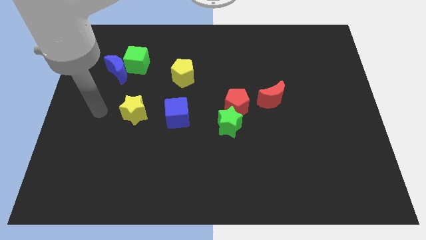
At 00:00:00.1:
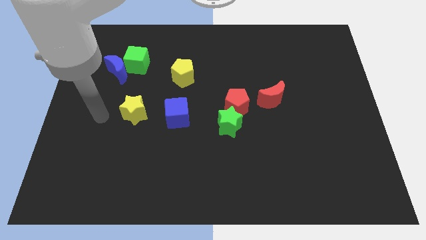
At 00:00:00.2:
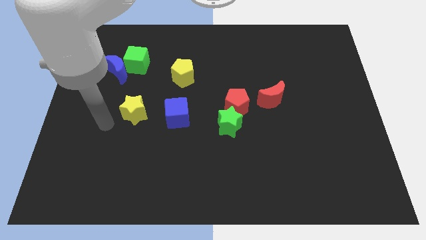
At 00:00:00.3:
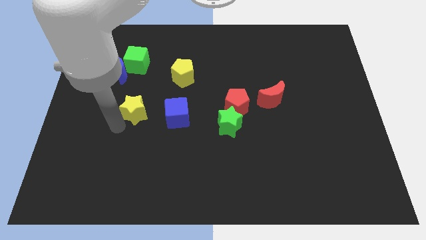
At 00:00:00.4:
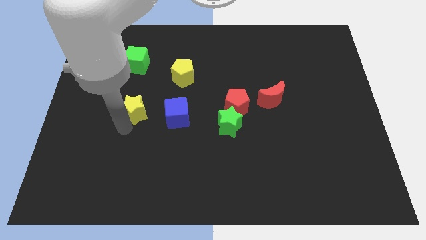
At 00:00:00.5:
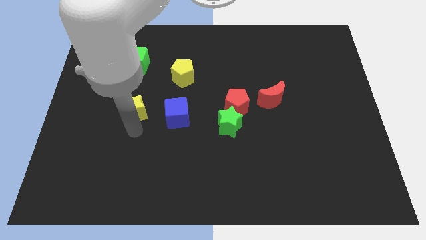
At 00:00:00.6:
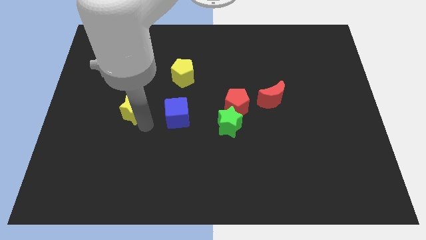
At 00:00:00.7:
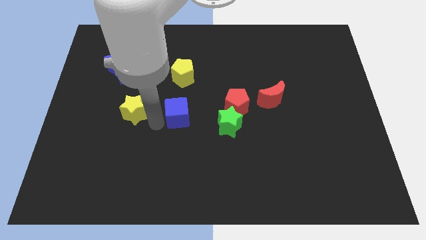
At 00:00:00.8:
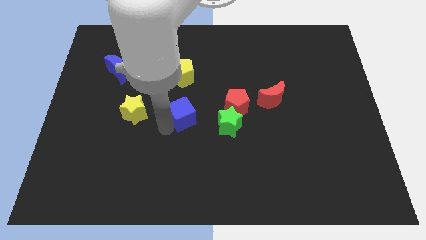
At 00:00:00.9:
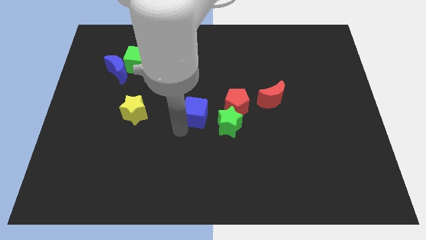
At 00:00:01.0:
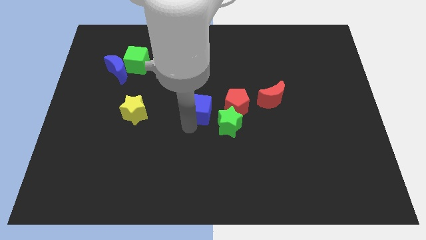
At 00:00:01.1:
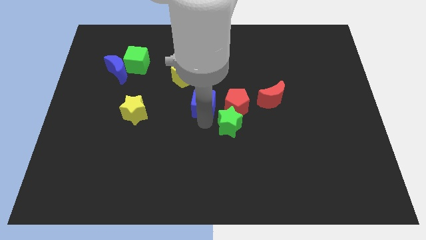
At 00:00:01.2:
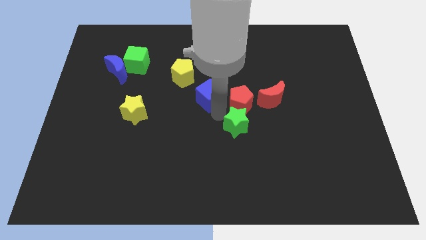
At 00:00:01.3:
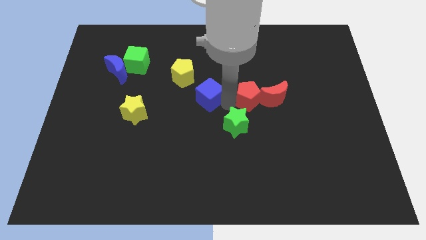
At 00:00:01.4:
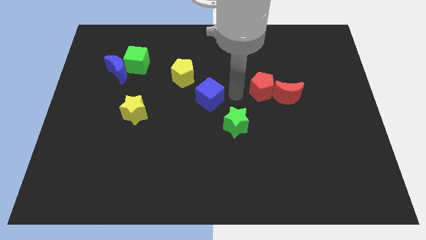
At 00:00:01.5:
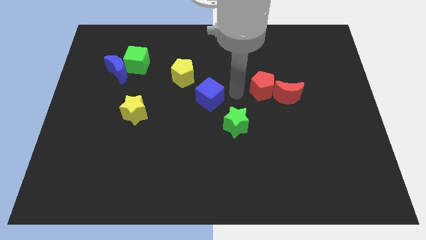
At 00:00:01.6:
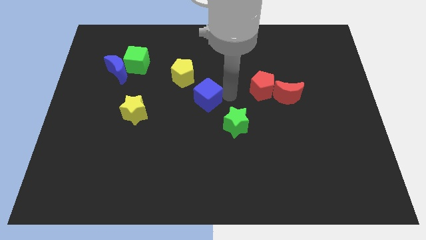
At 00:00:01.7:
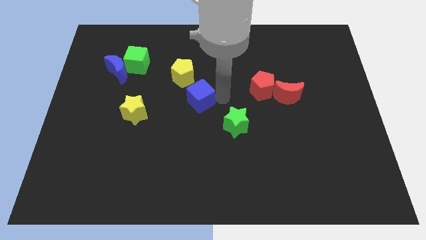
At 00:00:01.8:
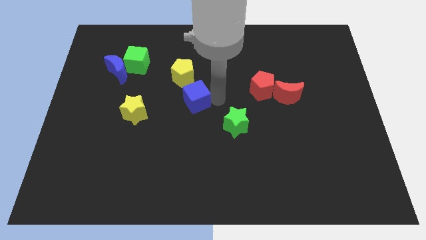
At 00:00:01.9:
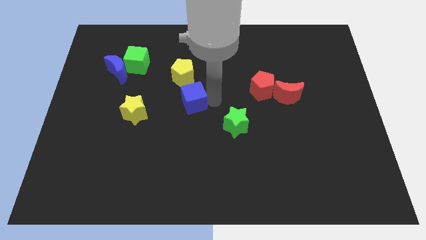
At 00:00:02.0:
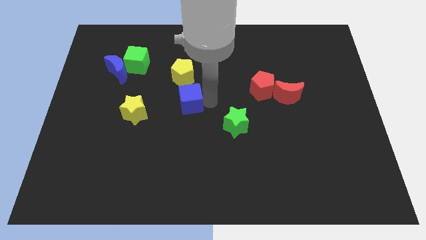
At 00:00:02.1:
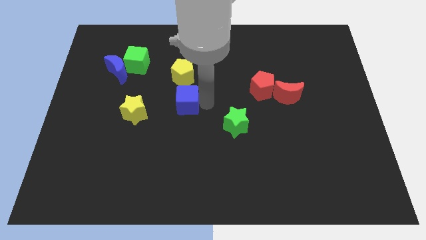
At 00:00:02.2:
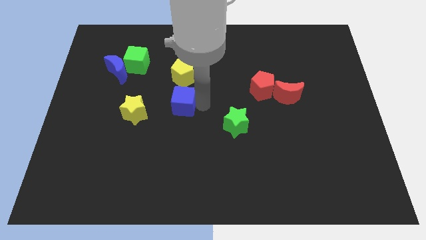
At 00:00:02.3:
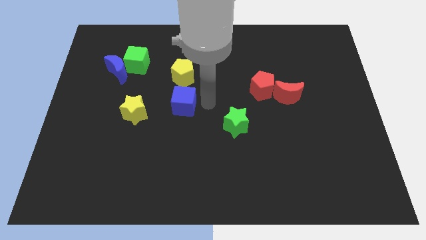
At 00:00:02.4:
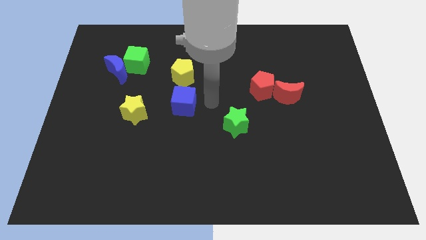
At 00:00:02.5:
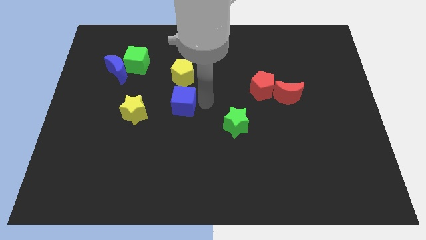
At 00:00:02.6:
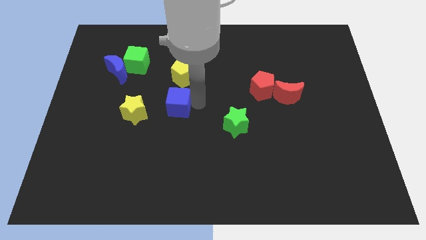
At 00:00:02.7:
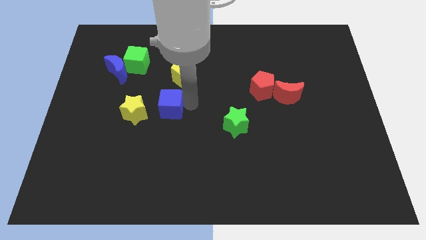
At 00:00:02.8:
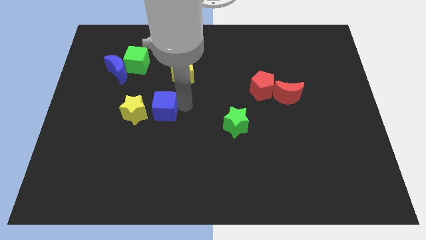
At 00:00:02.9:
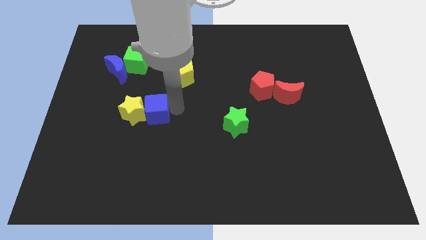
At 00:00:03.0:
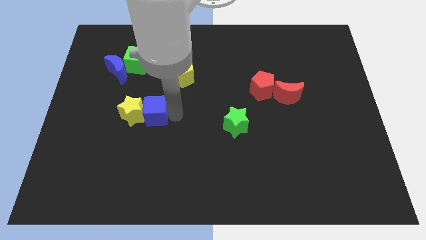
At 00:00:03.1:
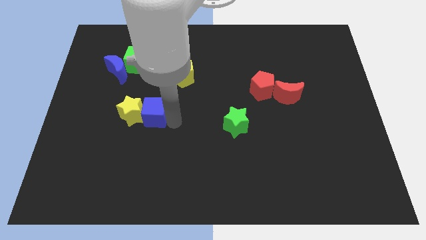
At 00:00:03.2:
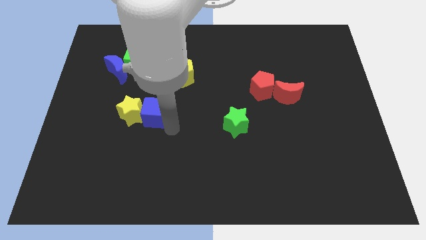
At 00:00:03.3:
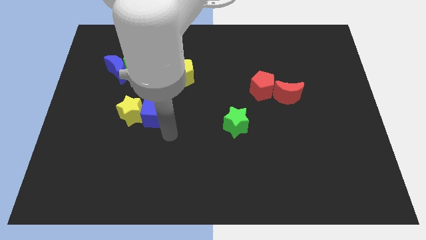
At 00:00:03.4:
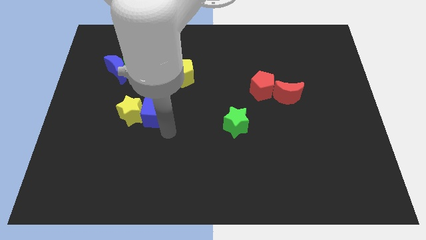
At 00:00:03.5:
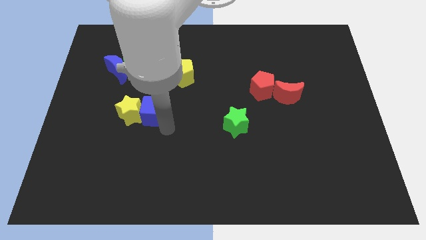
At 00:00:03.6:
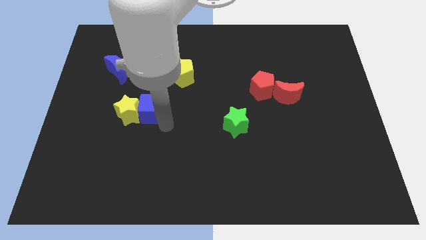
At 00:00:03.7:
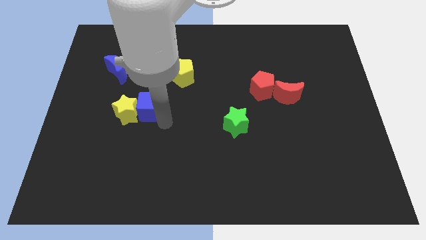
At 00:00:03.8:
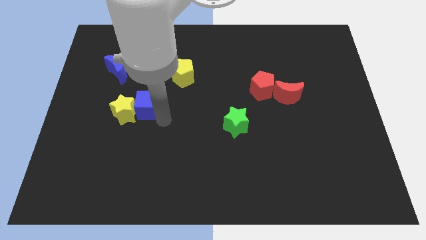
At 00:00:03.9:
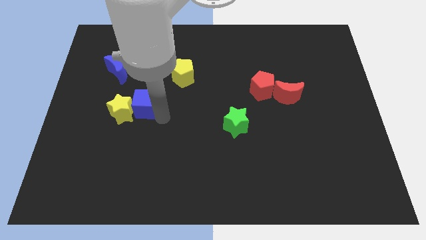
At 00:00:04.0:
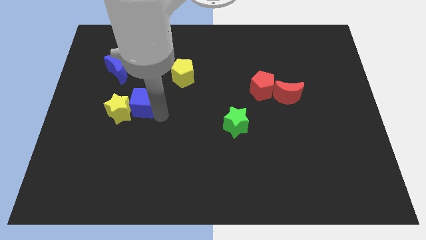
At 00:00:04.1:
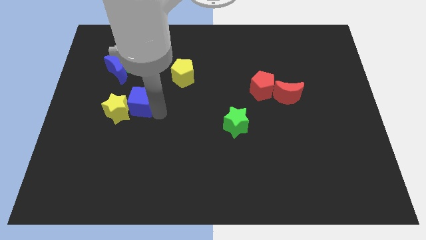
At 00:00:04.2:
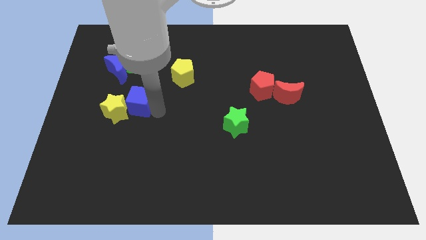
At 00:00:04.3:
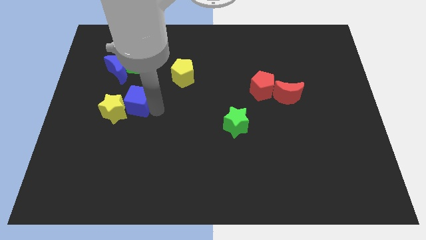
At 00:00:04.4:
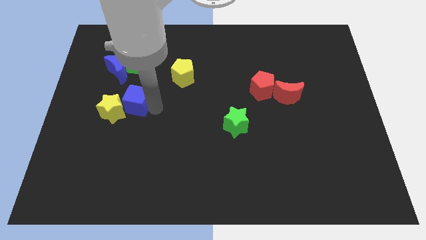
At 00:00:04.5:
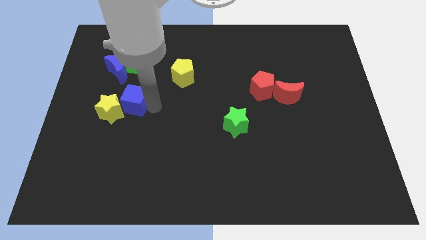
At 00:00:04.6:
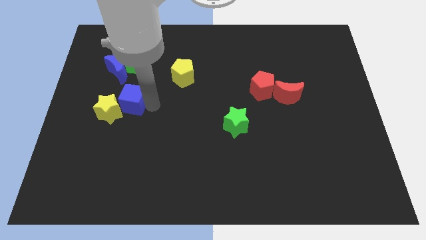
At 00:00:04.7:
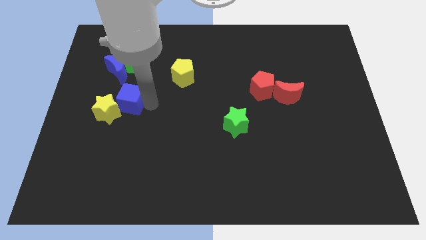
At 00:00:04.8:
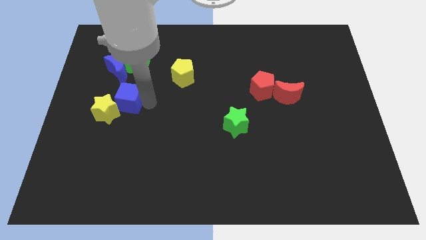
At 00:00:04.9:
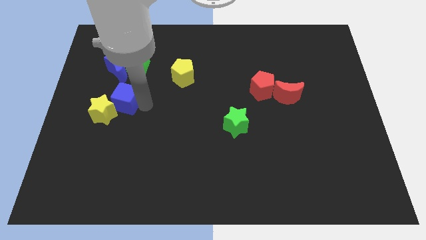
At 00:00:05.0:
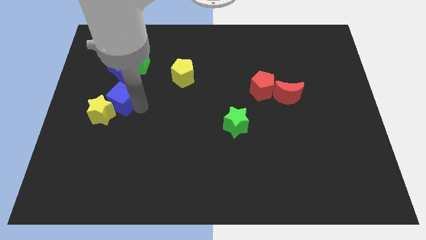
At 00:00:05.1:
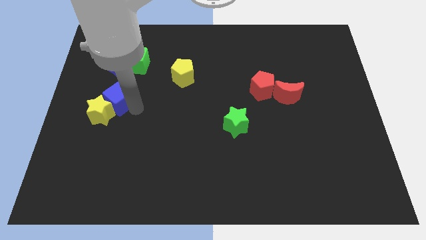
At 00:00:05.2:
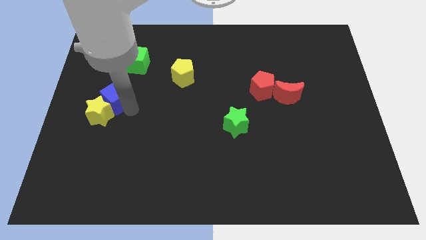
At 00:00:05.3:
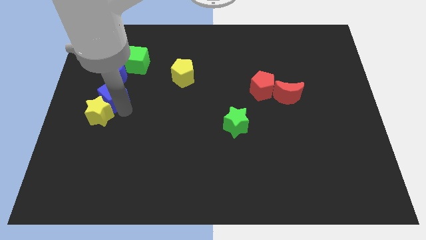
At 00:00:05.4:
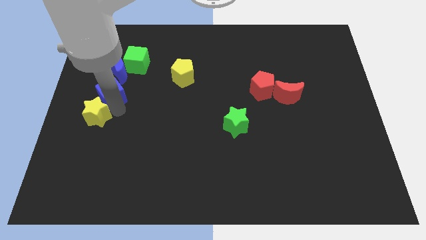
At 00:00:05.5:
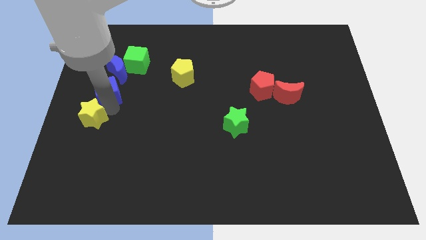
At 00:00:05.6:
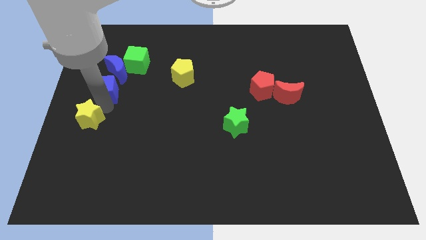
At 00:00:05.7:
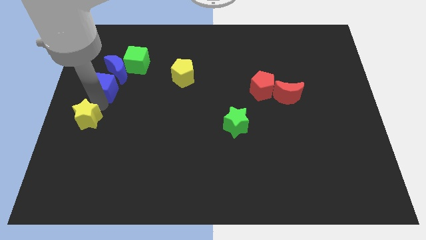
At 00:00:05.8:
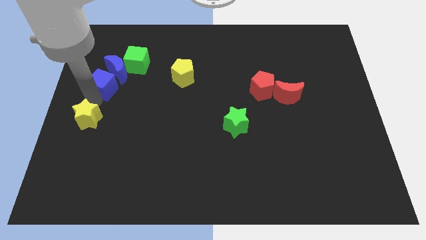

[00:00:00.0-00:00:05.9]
push the blue cube towards the blue moon

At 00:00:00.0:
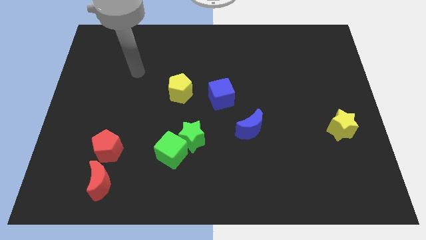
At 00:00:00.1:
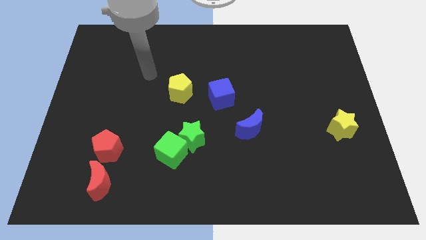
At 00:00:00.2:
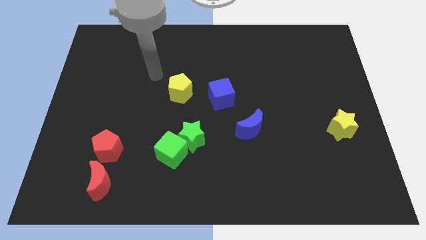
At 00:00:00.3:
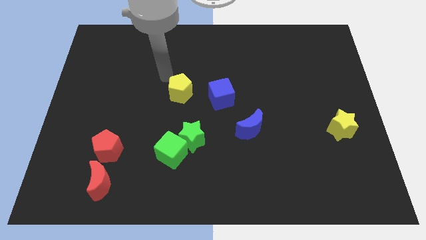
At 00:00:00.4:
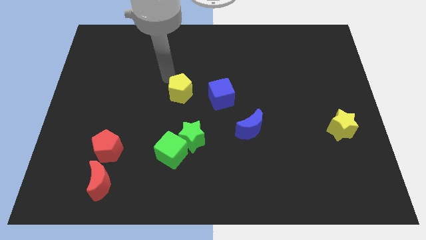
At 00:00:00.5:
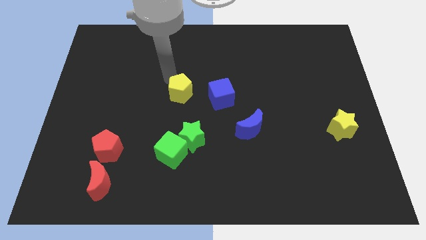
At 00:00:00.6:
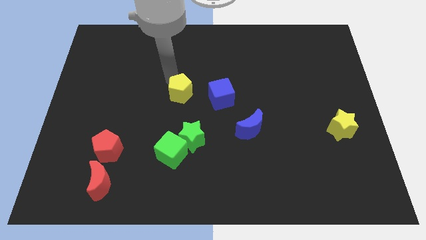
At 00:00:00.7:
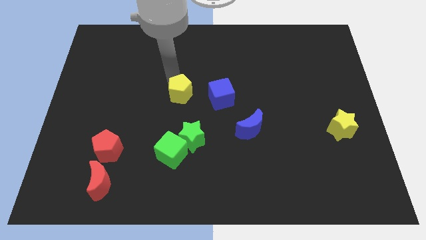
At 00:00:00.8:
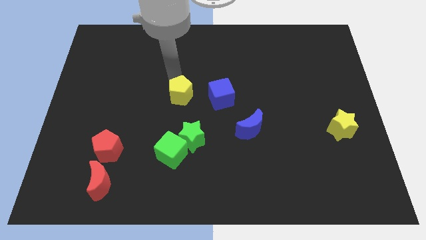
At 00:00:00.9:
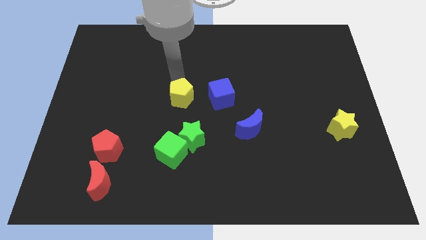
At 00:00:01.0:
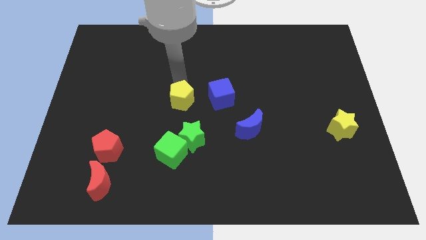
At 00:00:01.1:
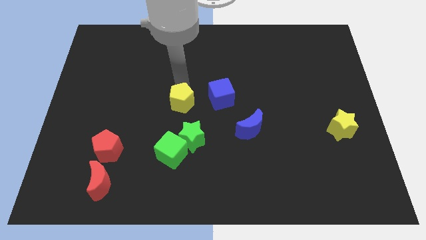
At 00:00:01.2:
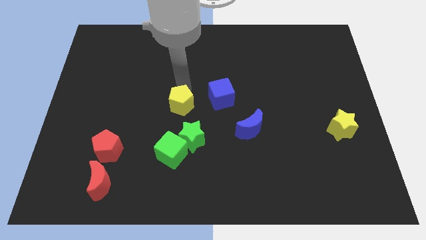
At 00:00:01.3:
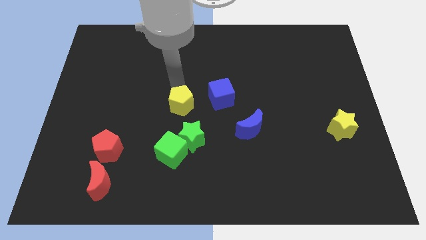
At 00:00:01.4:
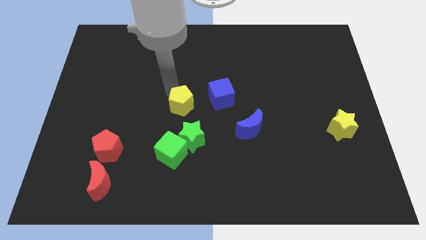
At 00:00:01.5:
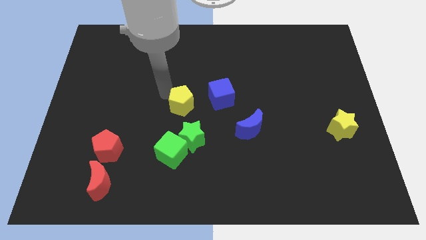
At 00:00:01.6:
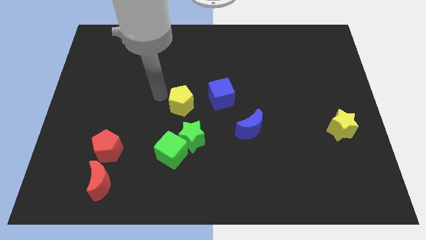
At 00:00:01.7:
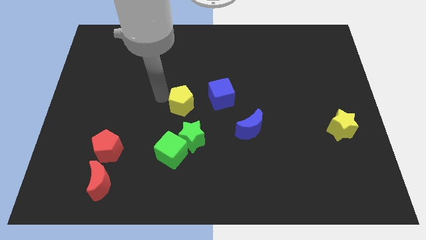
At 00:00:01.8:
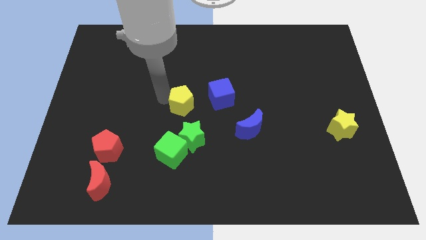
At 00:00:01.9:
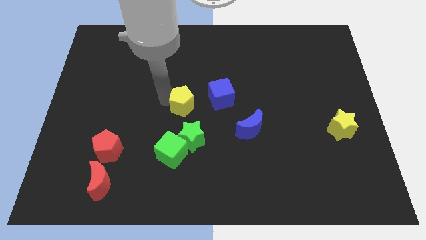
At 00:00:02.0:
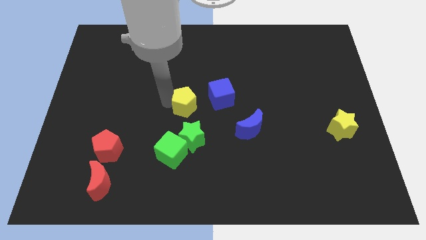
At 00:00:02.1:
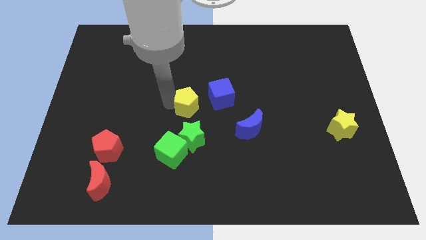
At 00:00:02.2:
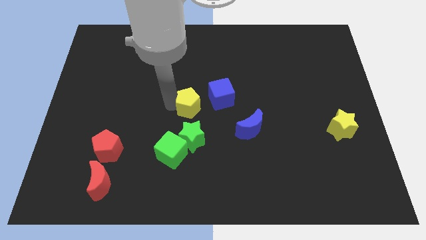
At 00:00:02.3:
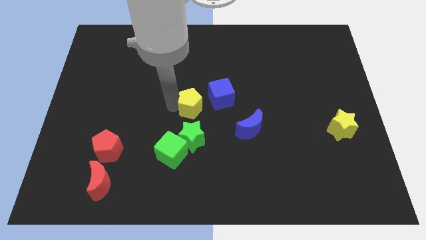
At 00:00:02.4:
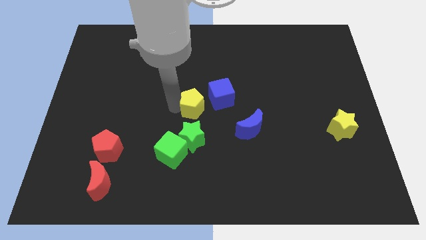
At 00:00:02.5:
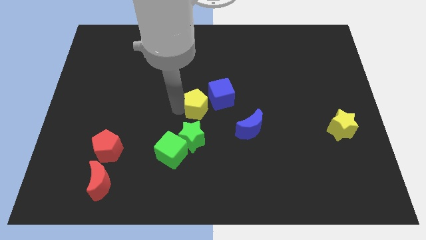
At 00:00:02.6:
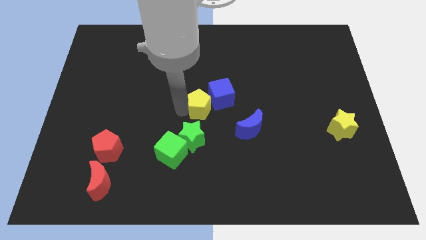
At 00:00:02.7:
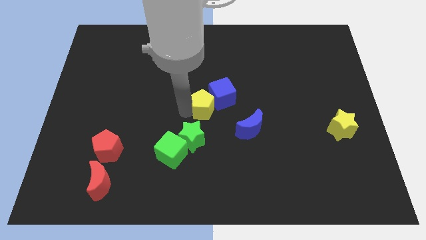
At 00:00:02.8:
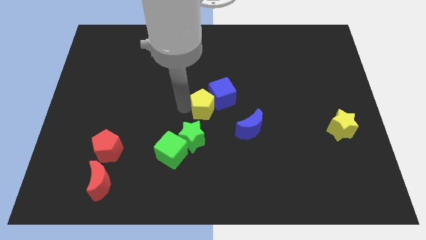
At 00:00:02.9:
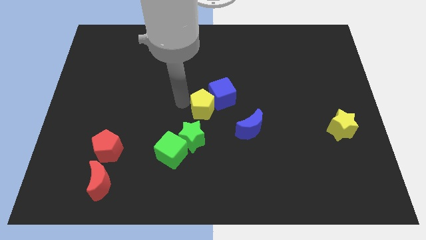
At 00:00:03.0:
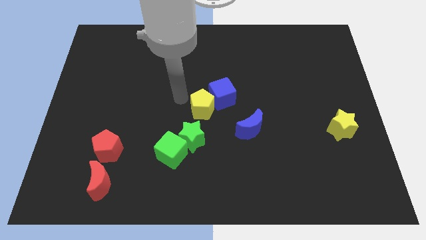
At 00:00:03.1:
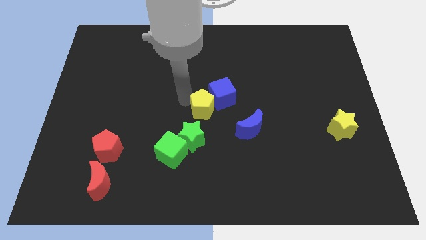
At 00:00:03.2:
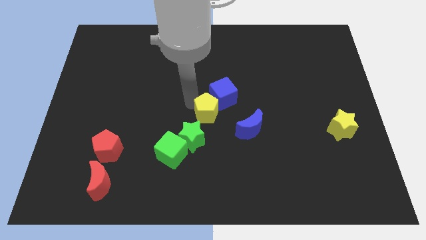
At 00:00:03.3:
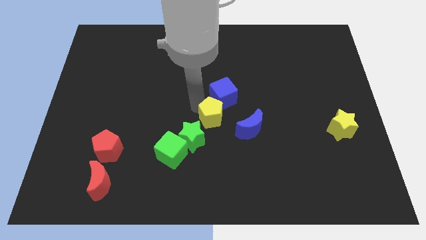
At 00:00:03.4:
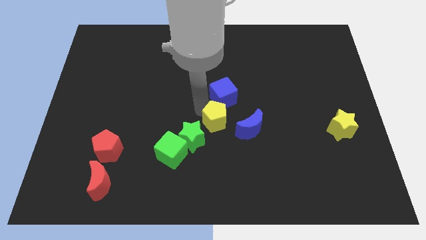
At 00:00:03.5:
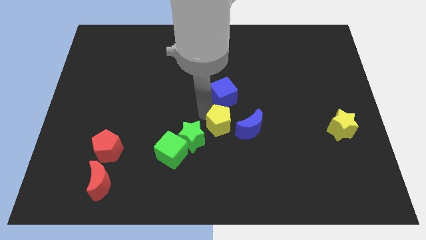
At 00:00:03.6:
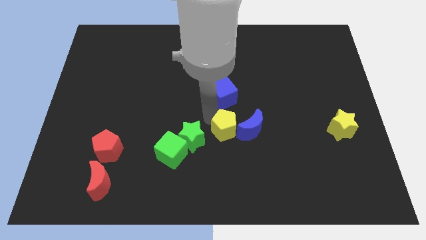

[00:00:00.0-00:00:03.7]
move the yellow pentagon to the blue moon
